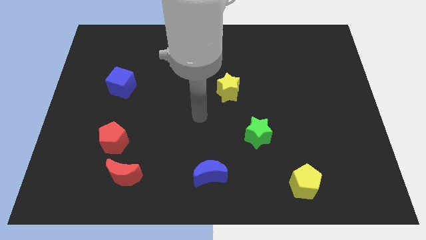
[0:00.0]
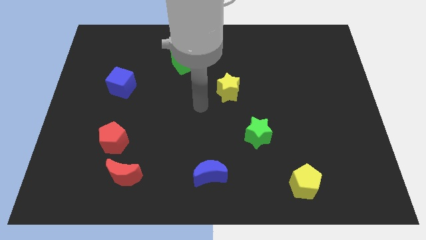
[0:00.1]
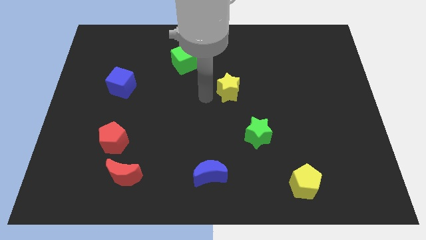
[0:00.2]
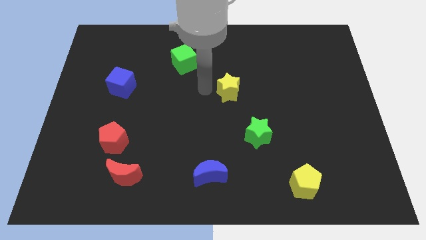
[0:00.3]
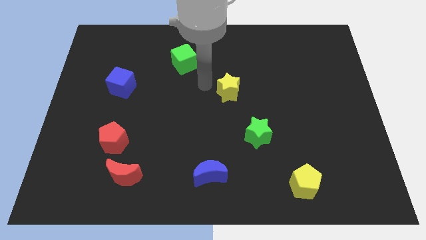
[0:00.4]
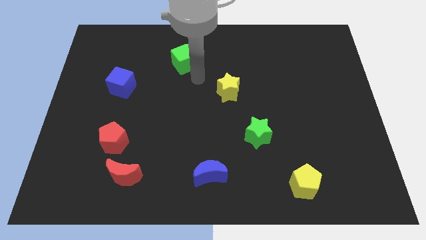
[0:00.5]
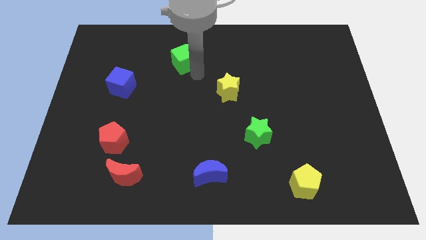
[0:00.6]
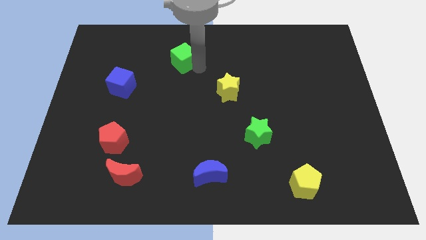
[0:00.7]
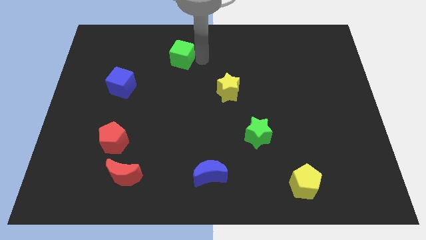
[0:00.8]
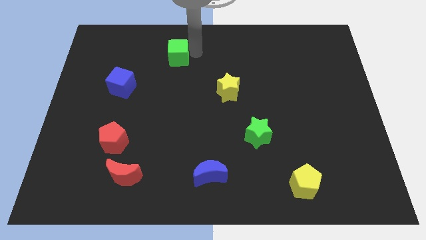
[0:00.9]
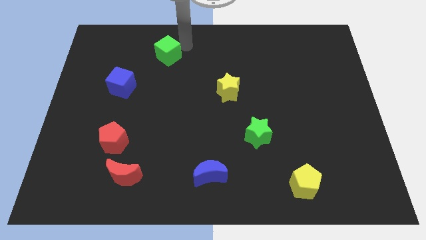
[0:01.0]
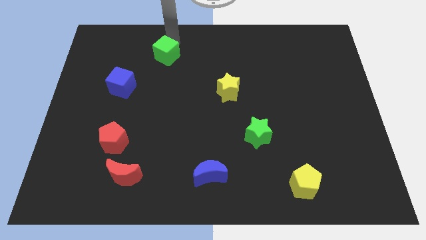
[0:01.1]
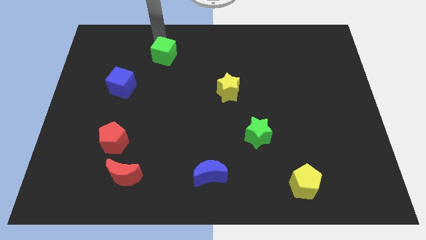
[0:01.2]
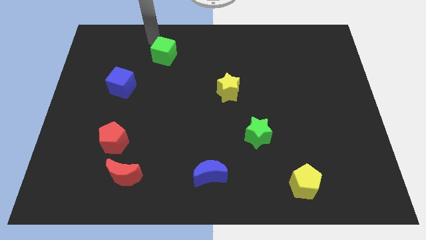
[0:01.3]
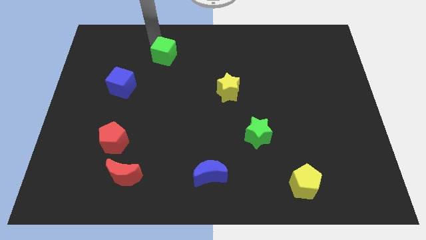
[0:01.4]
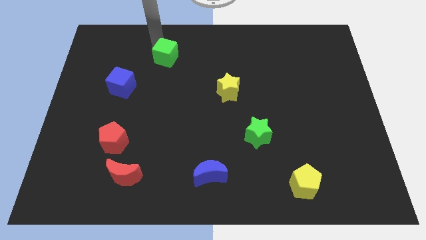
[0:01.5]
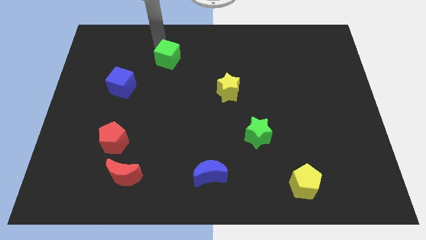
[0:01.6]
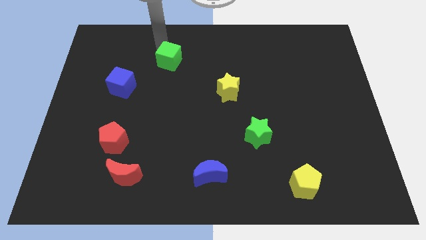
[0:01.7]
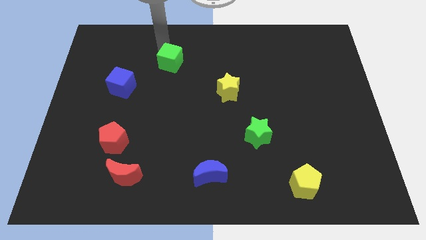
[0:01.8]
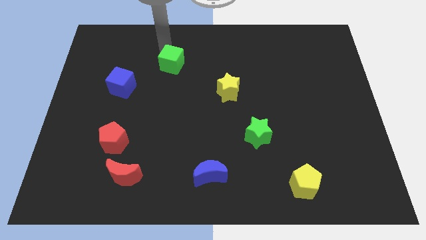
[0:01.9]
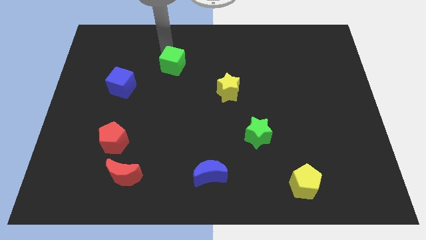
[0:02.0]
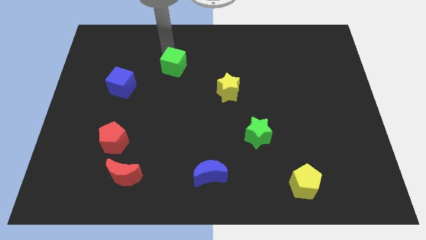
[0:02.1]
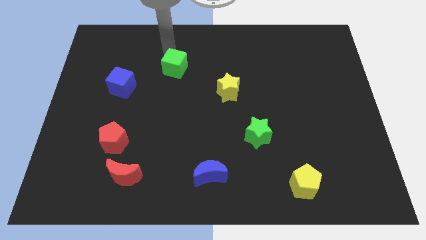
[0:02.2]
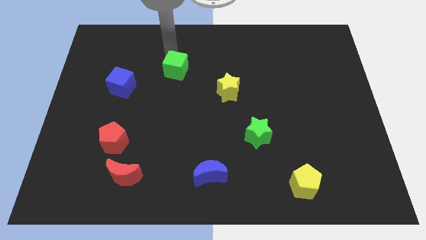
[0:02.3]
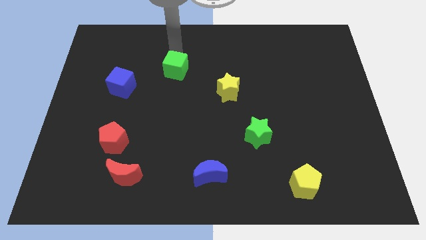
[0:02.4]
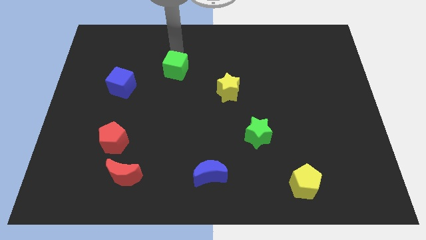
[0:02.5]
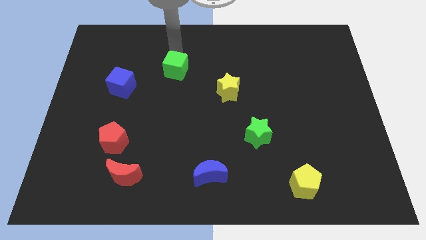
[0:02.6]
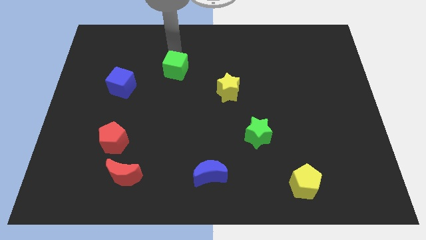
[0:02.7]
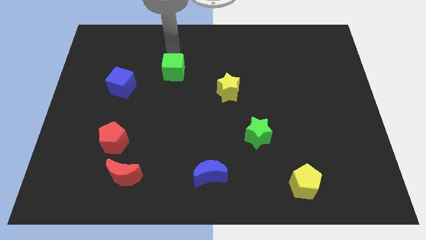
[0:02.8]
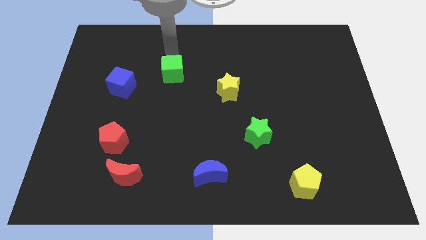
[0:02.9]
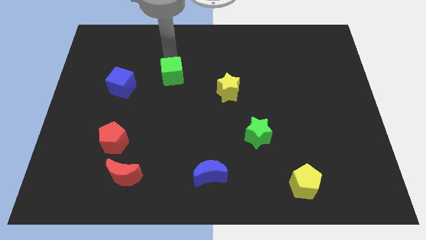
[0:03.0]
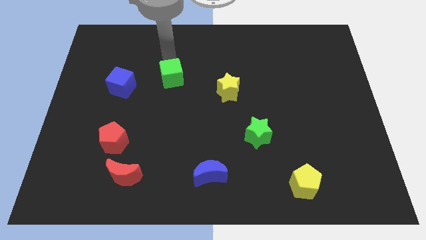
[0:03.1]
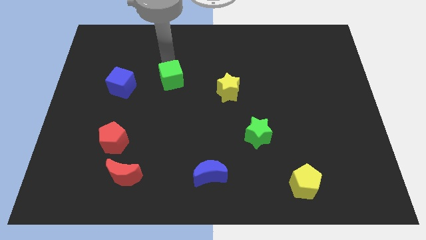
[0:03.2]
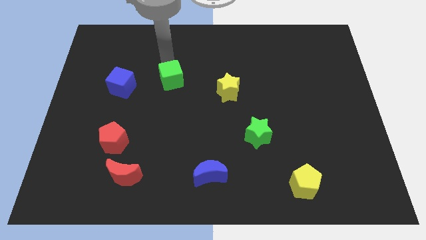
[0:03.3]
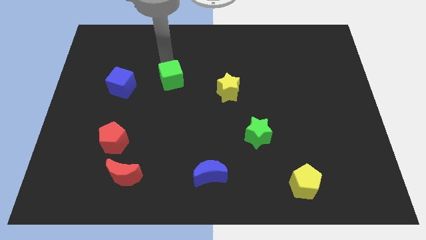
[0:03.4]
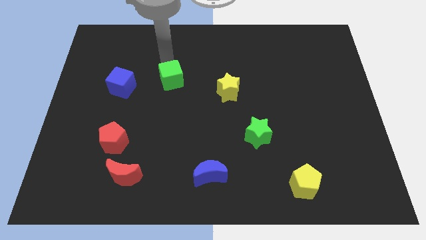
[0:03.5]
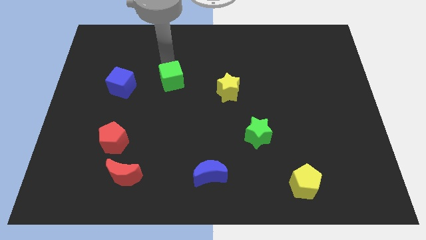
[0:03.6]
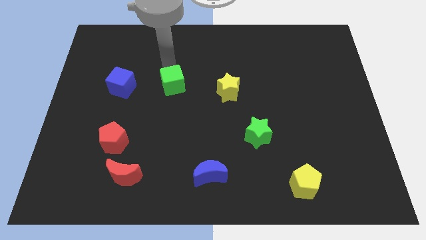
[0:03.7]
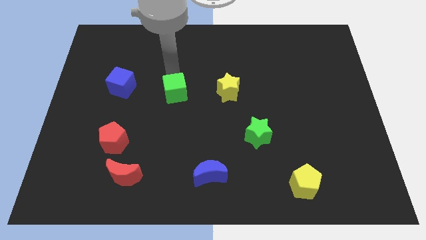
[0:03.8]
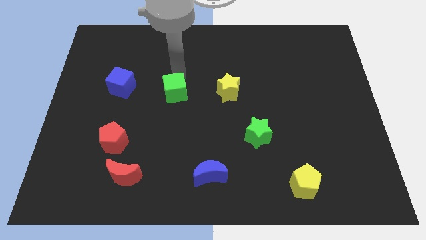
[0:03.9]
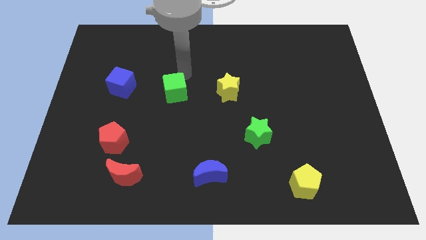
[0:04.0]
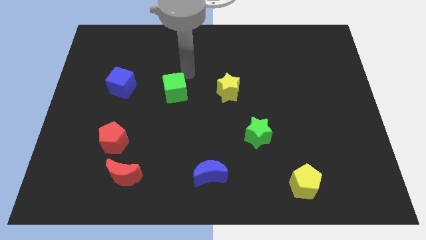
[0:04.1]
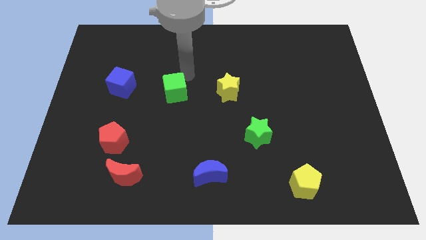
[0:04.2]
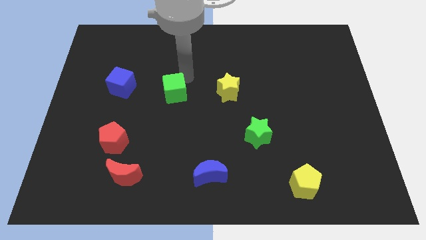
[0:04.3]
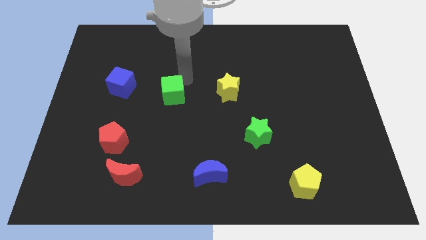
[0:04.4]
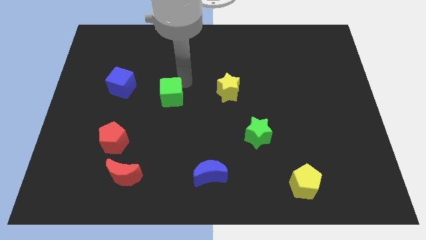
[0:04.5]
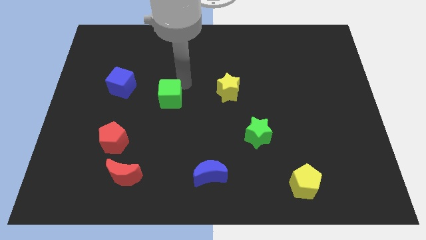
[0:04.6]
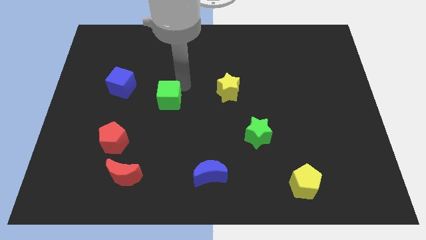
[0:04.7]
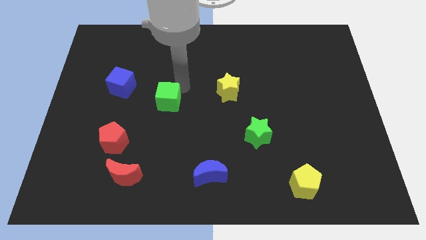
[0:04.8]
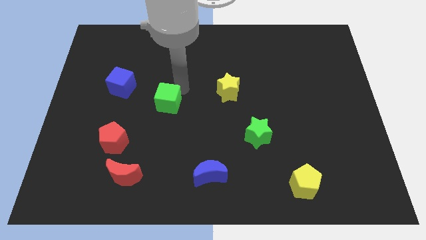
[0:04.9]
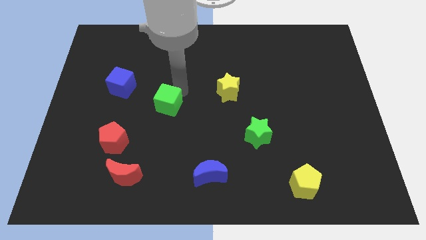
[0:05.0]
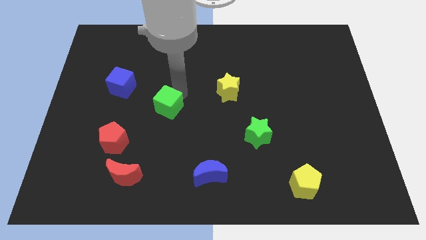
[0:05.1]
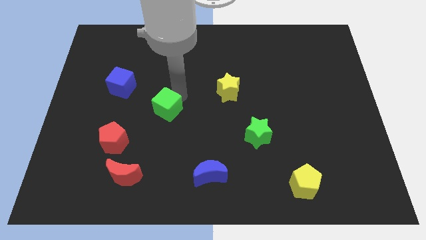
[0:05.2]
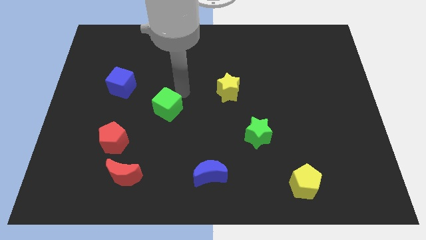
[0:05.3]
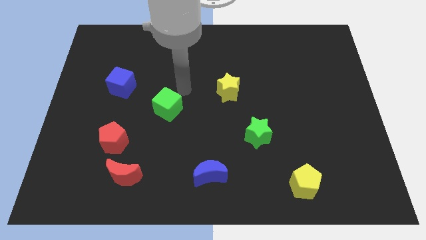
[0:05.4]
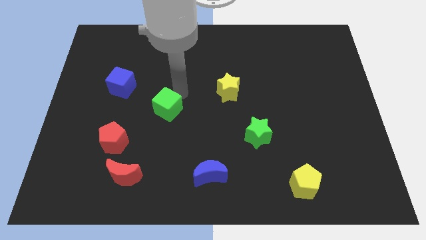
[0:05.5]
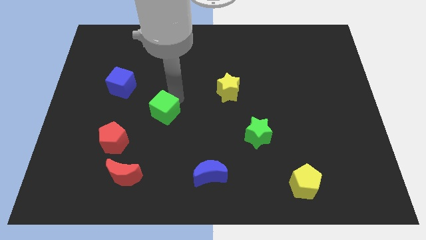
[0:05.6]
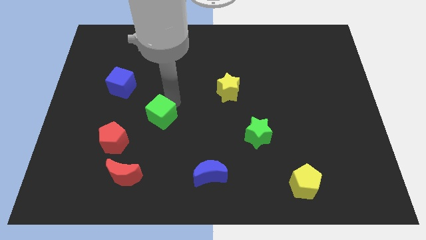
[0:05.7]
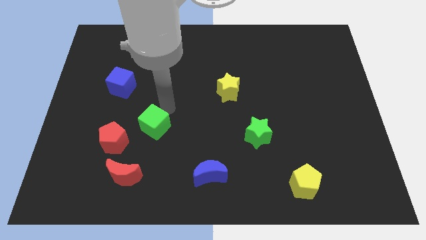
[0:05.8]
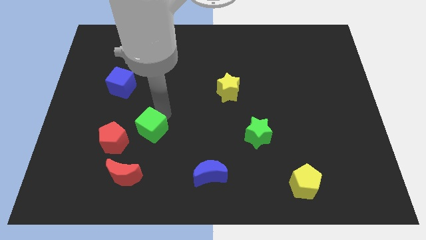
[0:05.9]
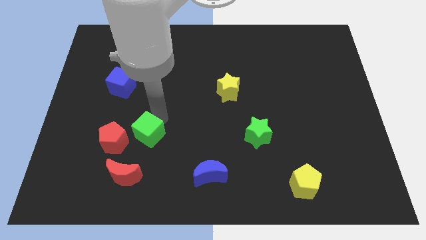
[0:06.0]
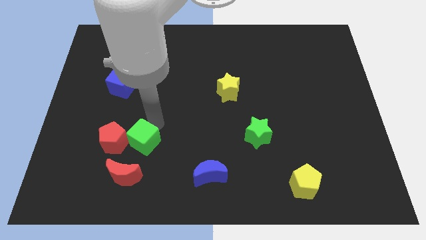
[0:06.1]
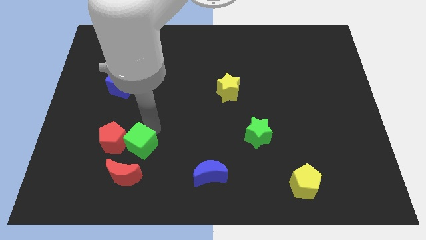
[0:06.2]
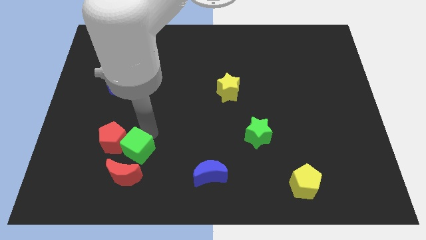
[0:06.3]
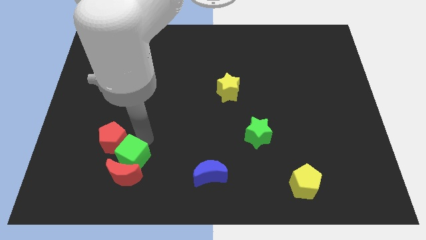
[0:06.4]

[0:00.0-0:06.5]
push the green cube next to the red moon

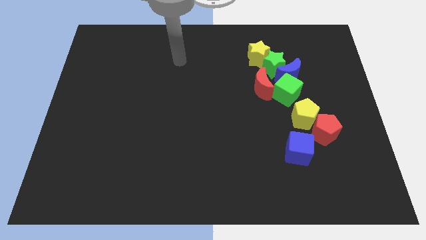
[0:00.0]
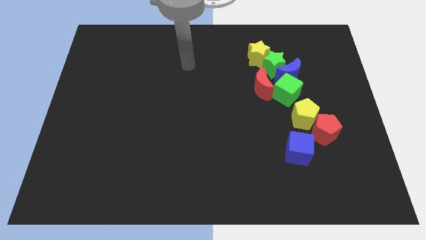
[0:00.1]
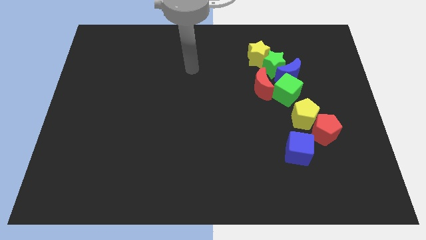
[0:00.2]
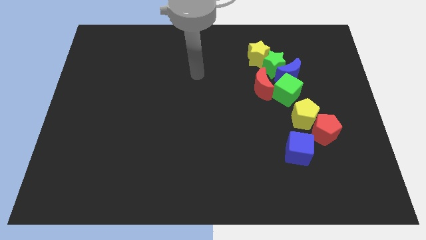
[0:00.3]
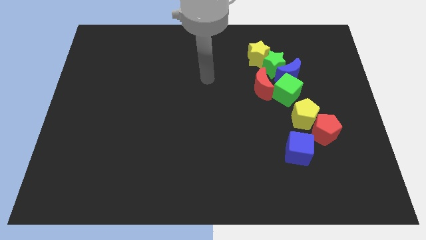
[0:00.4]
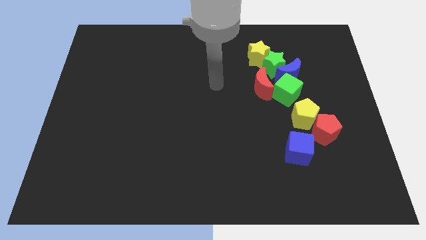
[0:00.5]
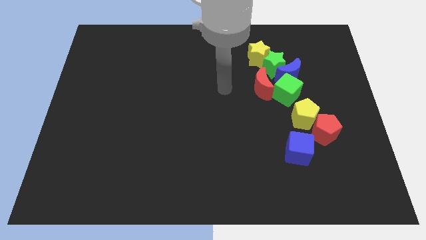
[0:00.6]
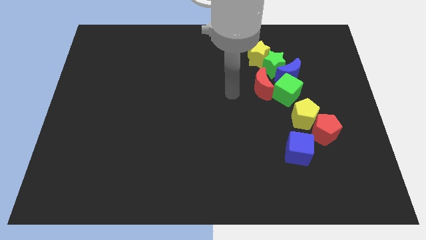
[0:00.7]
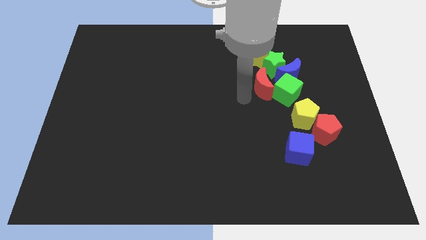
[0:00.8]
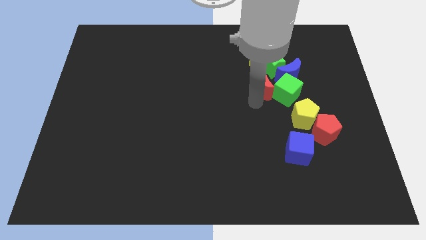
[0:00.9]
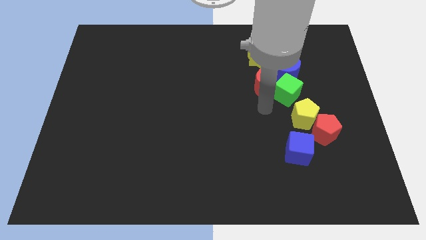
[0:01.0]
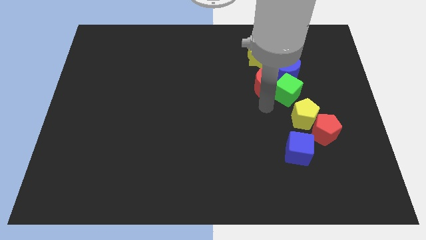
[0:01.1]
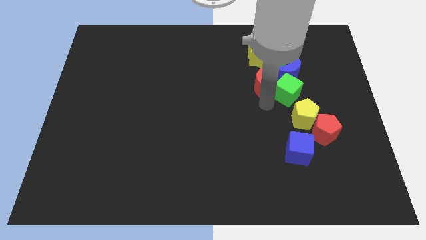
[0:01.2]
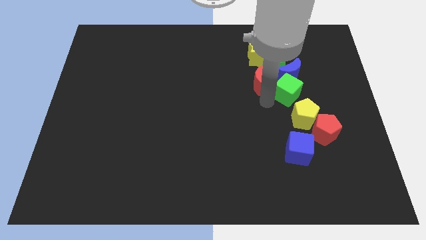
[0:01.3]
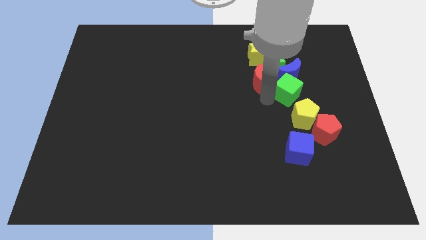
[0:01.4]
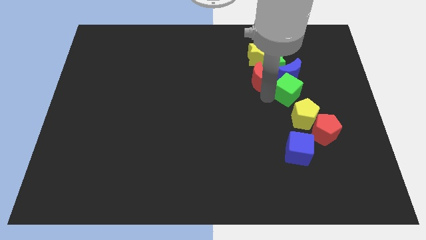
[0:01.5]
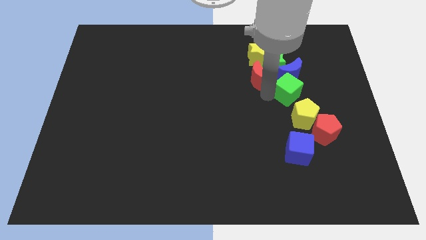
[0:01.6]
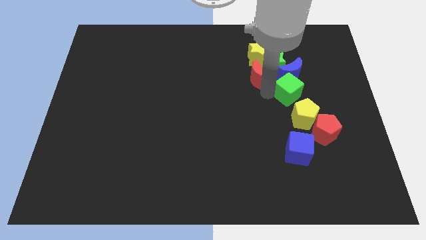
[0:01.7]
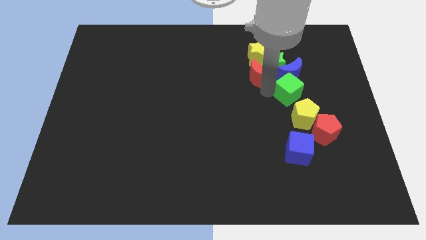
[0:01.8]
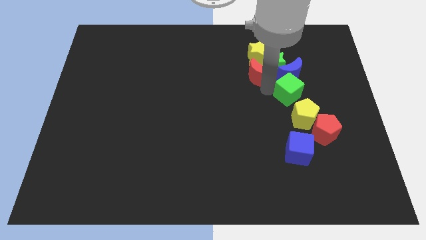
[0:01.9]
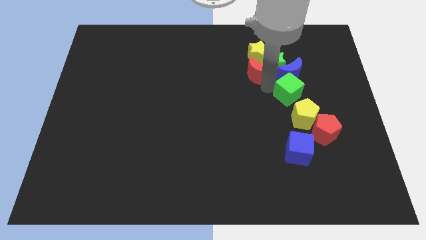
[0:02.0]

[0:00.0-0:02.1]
put the red moon to the yellow star
